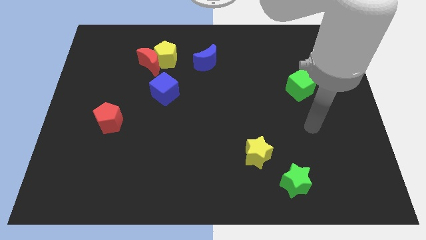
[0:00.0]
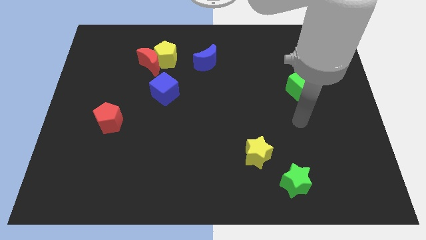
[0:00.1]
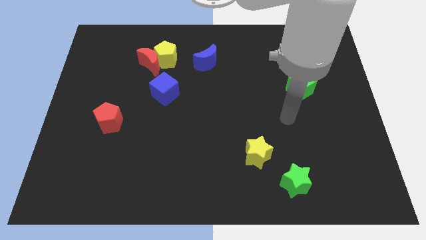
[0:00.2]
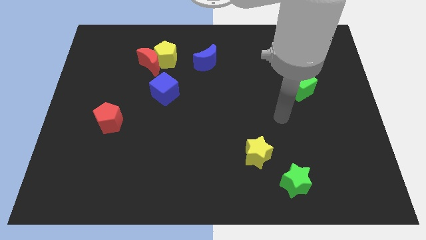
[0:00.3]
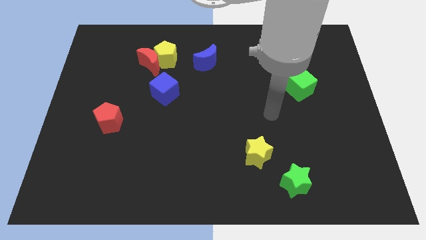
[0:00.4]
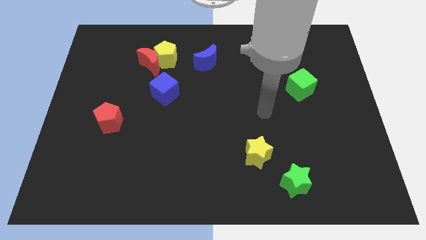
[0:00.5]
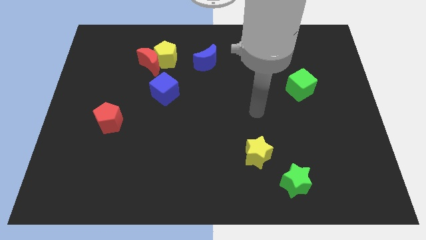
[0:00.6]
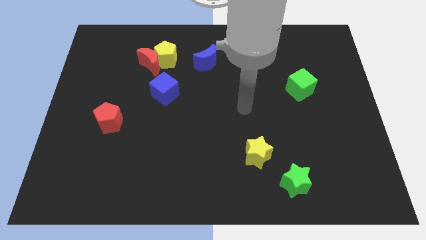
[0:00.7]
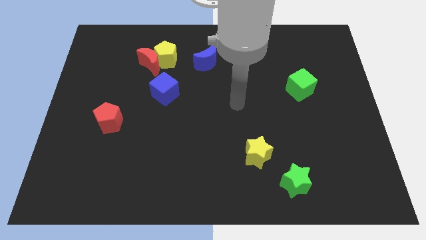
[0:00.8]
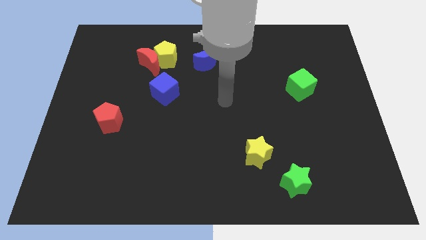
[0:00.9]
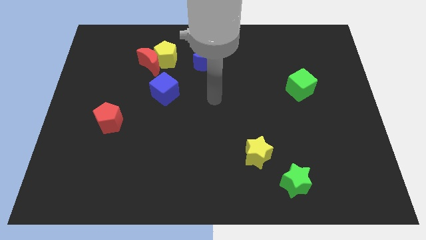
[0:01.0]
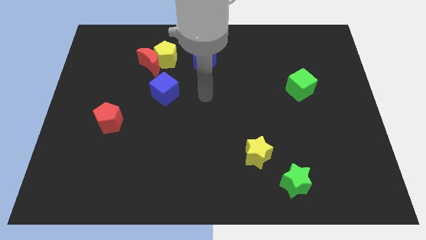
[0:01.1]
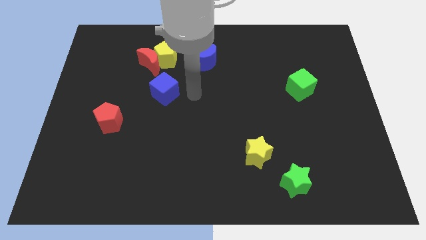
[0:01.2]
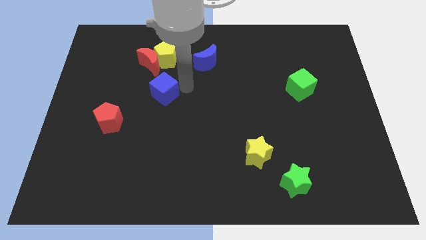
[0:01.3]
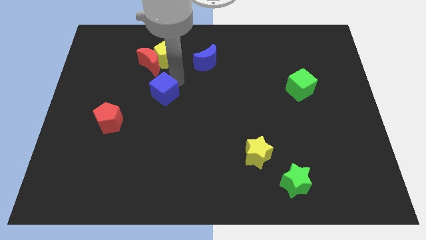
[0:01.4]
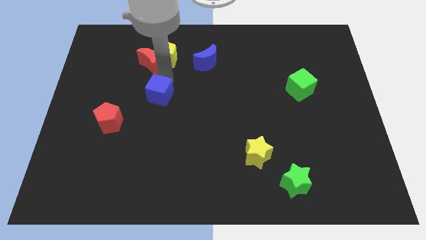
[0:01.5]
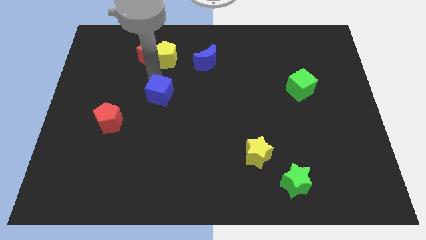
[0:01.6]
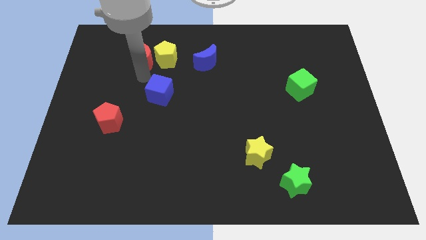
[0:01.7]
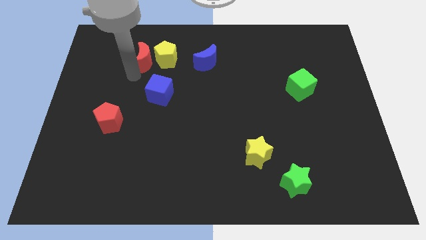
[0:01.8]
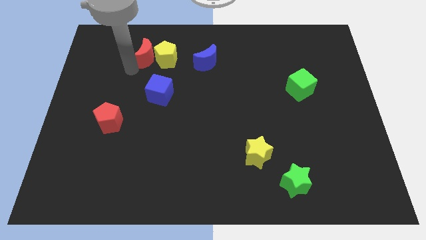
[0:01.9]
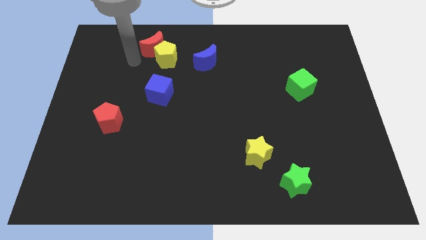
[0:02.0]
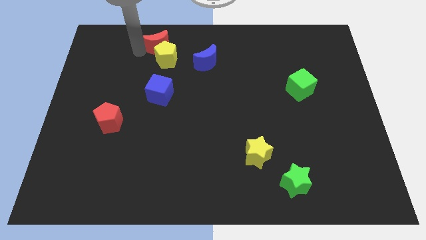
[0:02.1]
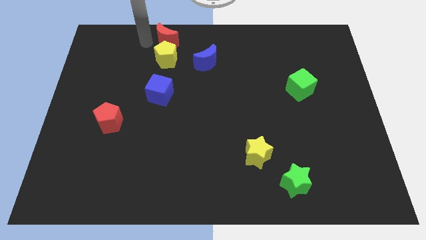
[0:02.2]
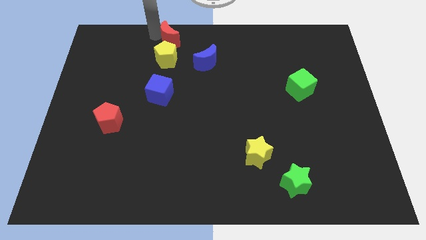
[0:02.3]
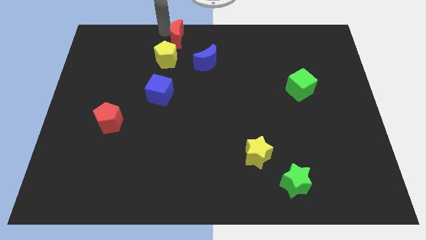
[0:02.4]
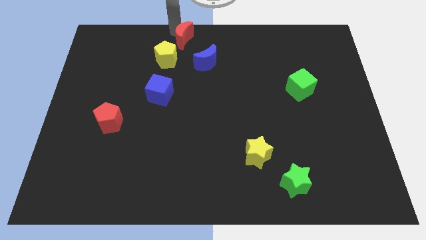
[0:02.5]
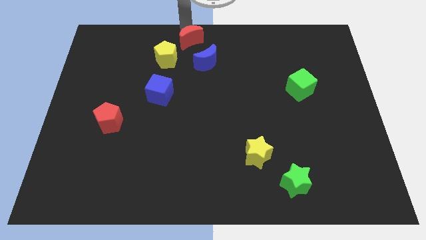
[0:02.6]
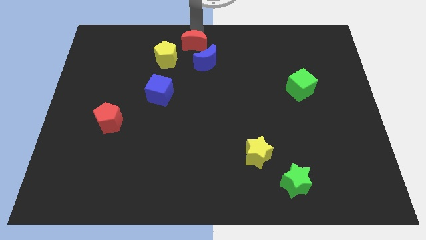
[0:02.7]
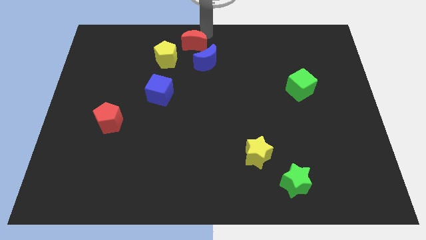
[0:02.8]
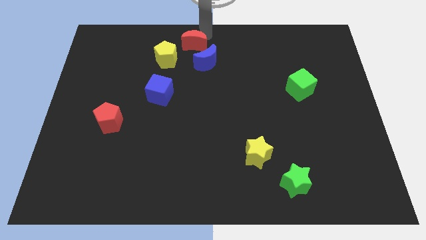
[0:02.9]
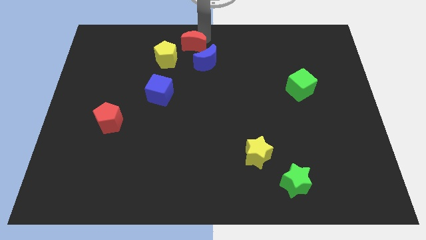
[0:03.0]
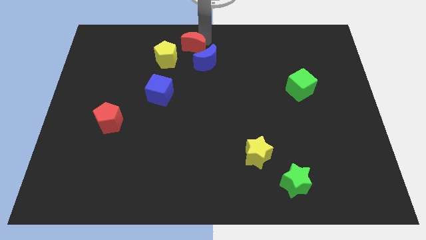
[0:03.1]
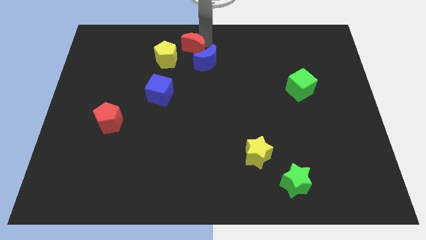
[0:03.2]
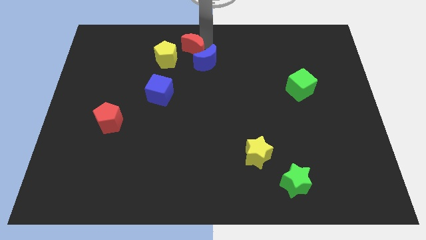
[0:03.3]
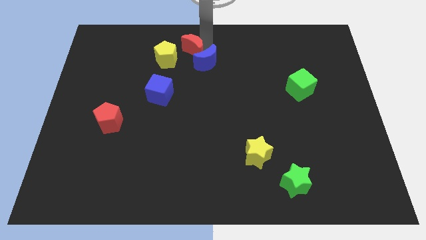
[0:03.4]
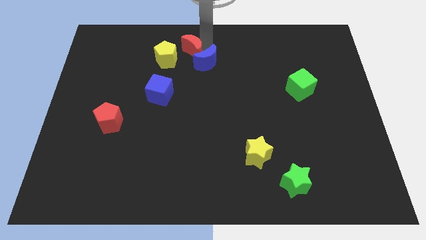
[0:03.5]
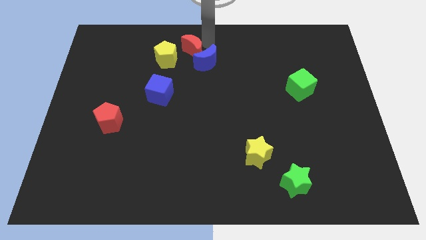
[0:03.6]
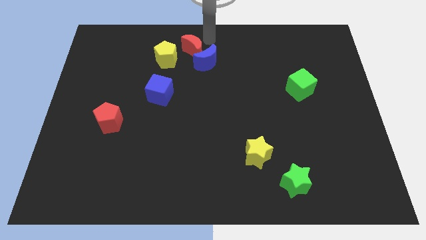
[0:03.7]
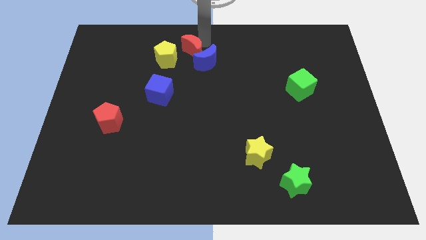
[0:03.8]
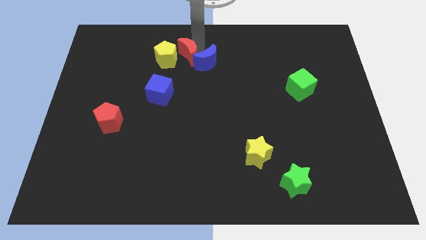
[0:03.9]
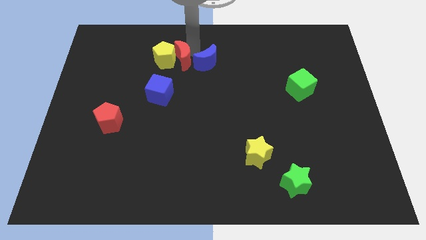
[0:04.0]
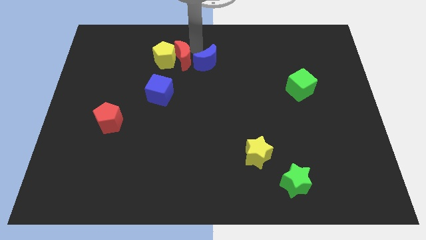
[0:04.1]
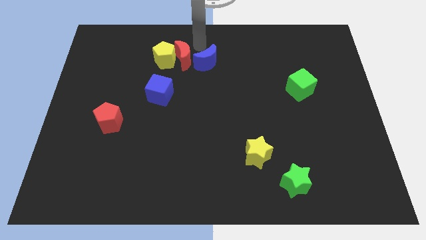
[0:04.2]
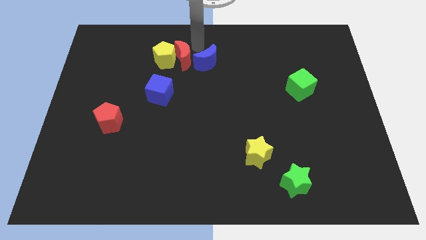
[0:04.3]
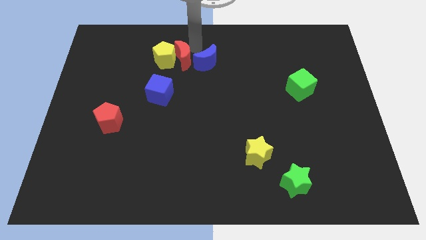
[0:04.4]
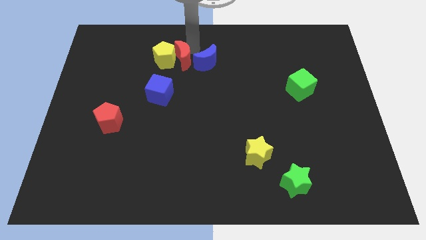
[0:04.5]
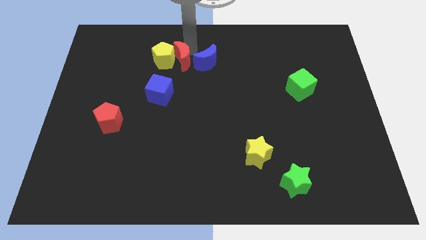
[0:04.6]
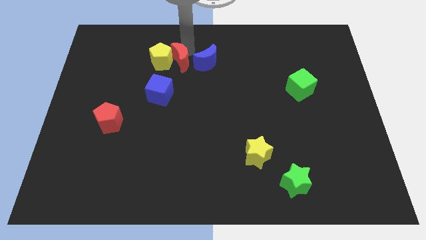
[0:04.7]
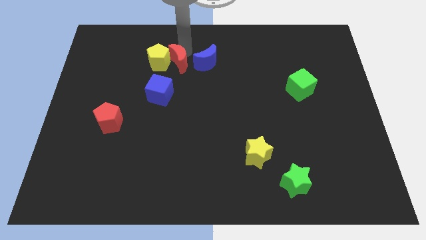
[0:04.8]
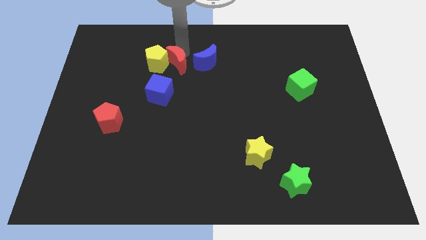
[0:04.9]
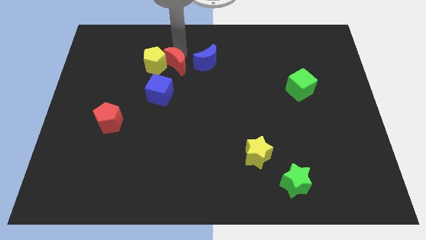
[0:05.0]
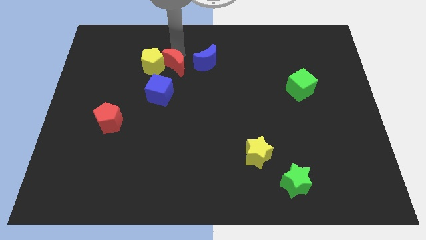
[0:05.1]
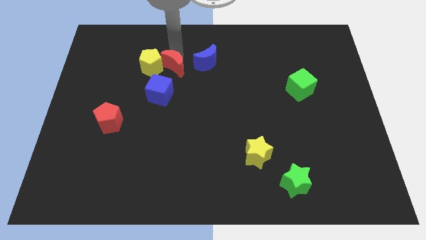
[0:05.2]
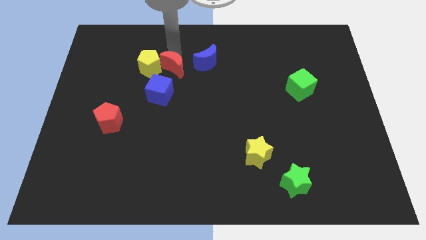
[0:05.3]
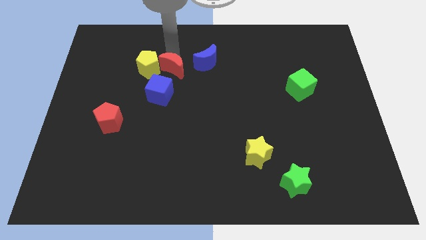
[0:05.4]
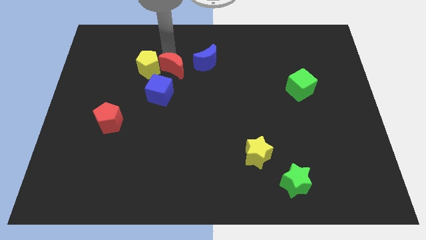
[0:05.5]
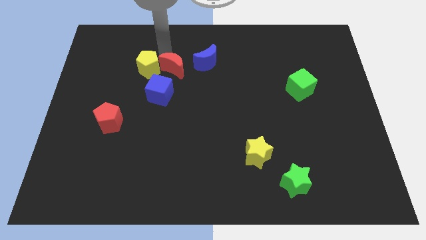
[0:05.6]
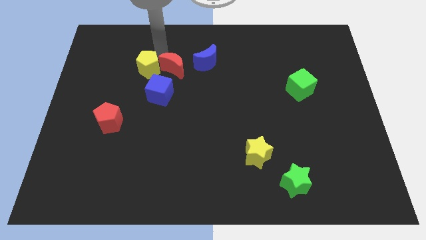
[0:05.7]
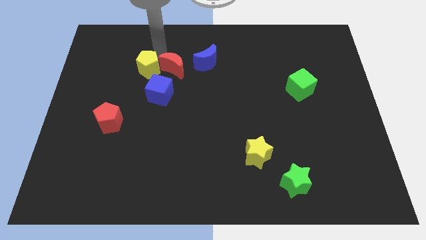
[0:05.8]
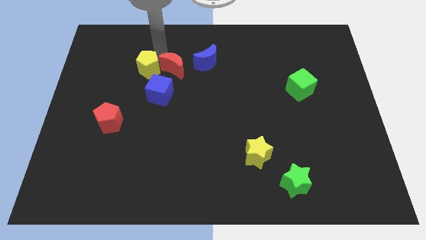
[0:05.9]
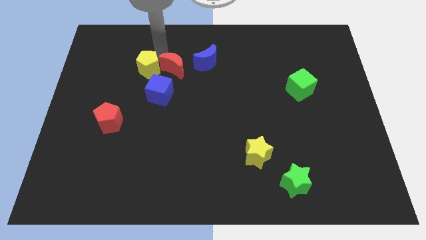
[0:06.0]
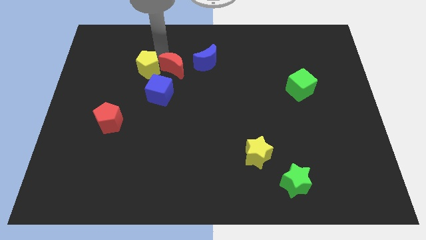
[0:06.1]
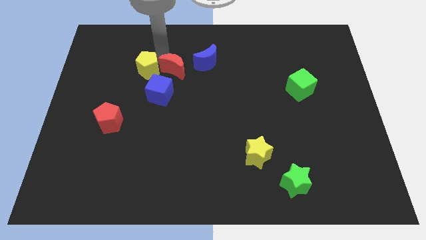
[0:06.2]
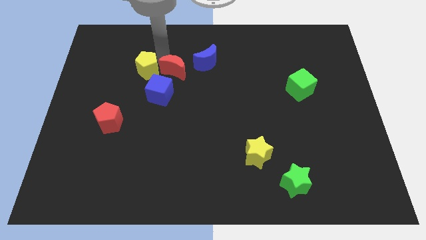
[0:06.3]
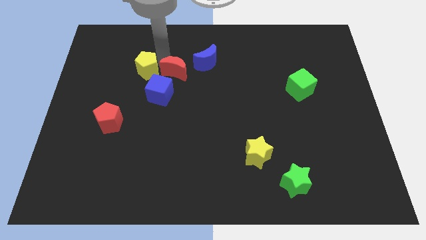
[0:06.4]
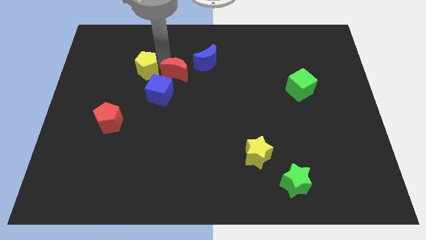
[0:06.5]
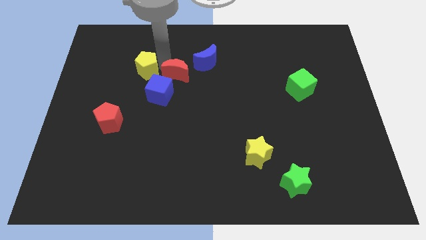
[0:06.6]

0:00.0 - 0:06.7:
put the red moon to the middle
